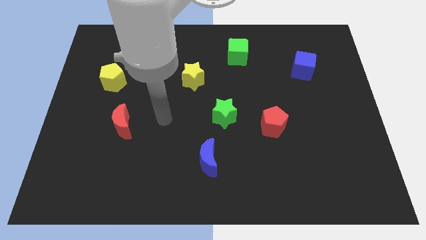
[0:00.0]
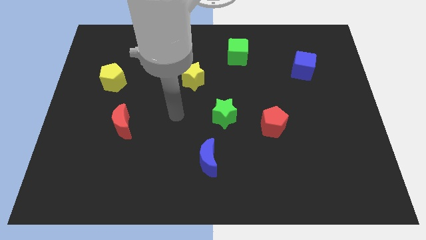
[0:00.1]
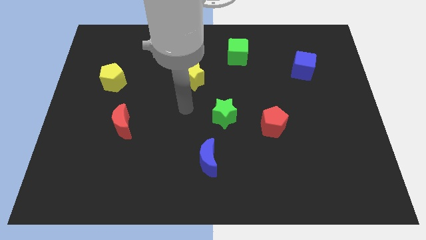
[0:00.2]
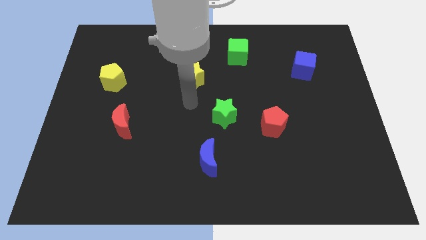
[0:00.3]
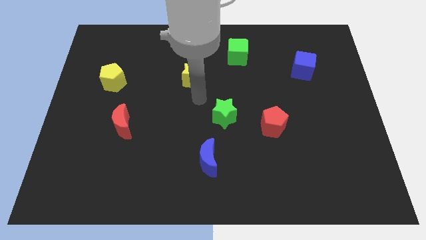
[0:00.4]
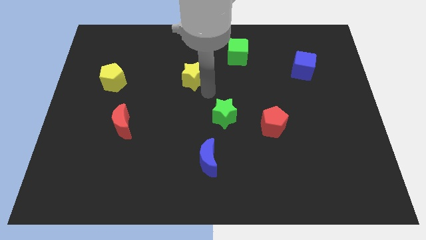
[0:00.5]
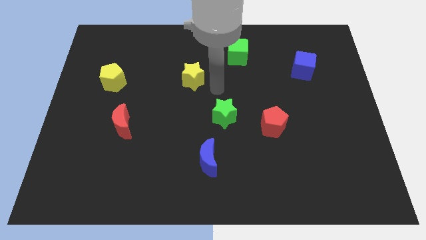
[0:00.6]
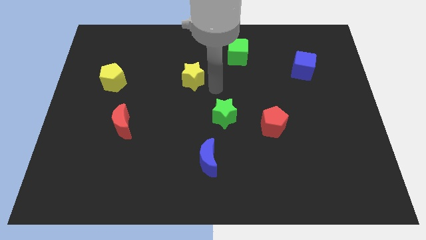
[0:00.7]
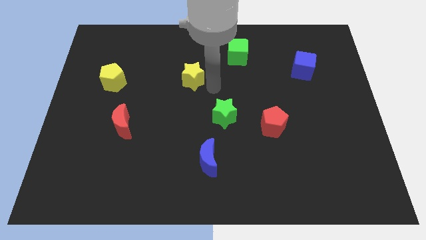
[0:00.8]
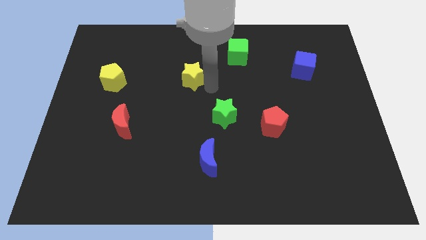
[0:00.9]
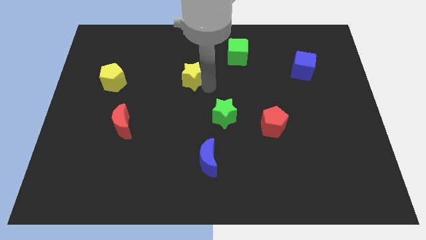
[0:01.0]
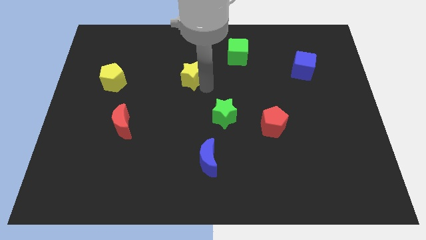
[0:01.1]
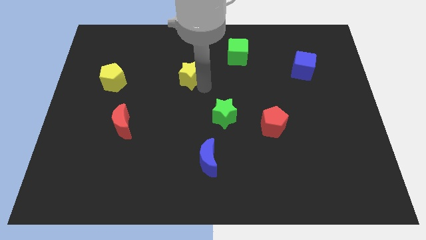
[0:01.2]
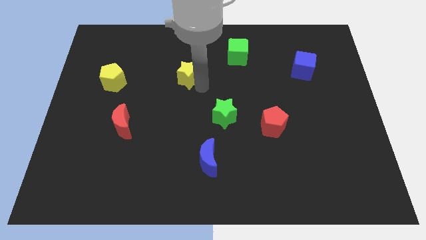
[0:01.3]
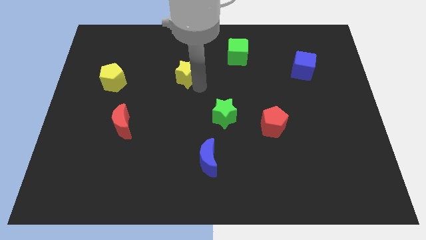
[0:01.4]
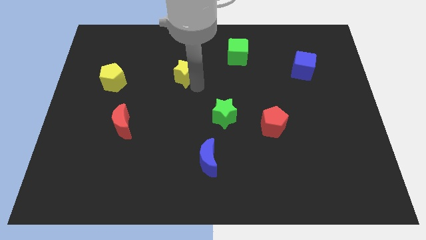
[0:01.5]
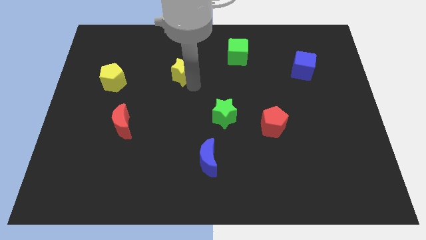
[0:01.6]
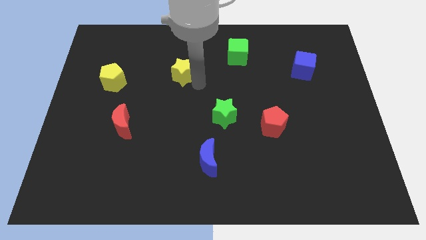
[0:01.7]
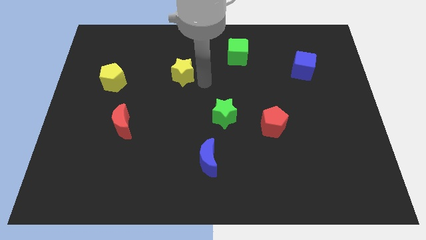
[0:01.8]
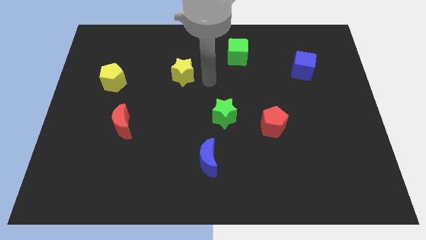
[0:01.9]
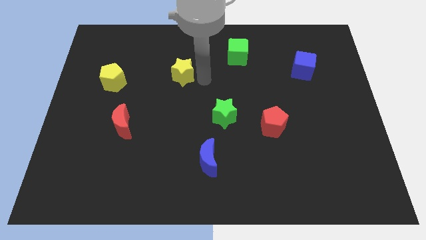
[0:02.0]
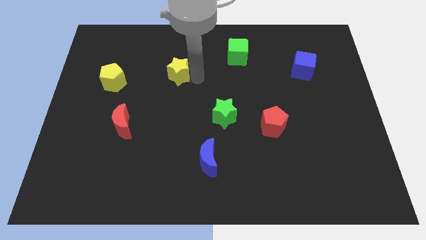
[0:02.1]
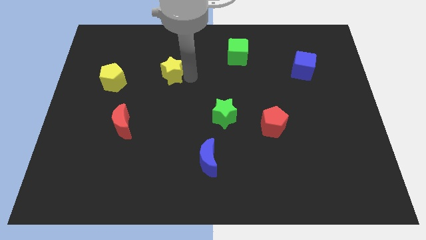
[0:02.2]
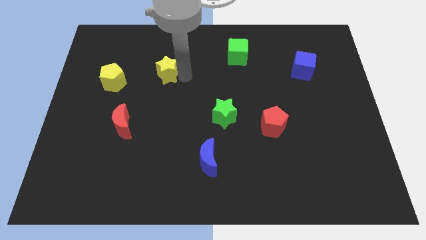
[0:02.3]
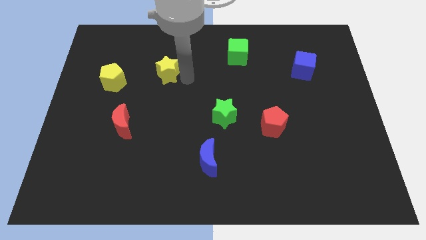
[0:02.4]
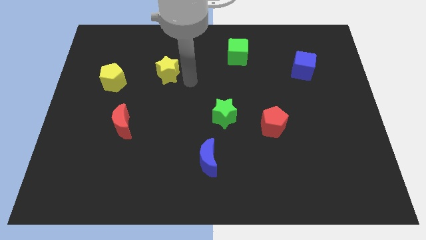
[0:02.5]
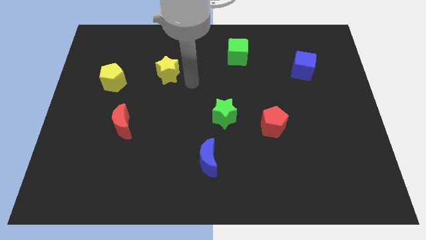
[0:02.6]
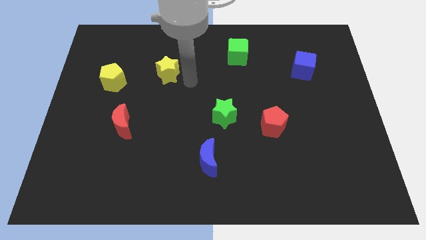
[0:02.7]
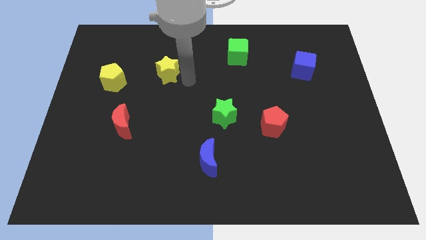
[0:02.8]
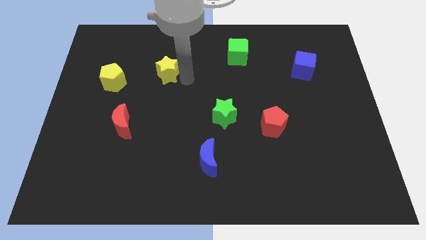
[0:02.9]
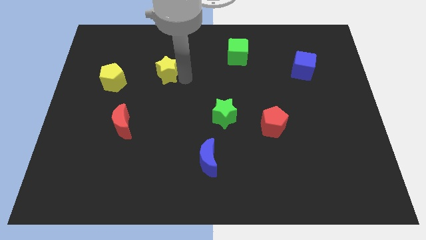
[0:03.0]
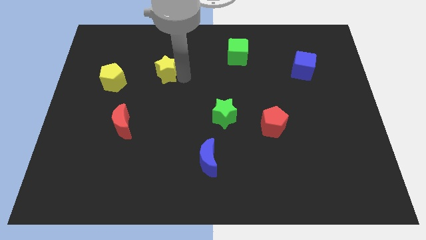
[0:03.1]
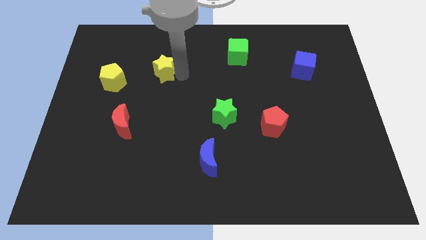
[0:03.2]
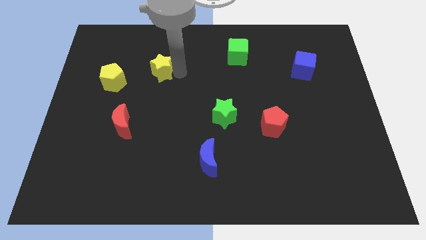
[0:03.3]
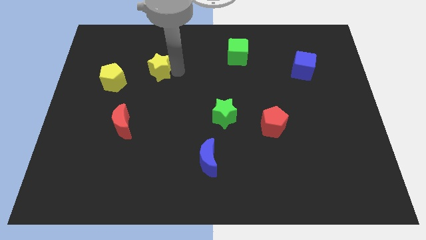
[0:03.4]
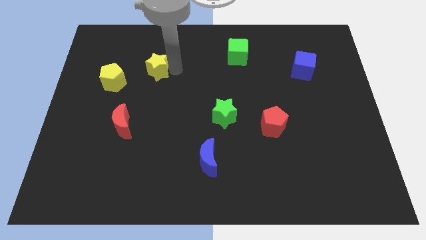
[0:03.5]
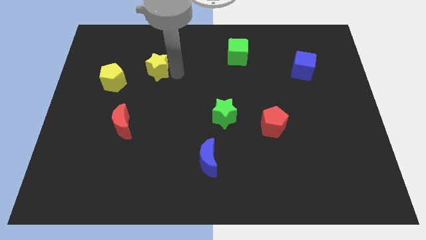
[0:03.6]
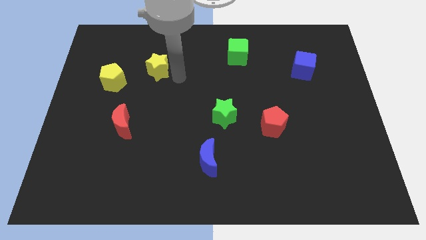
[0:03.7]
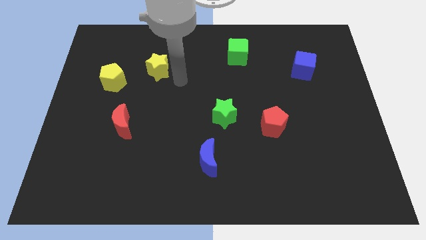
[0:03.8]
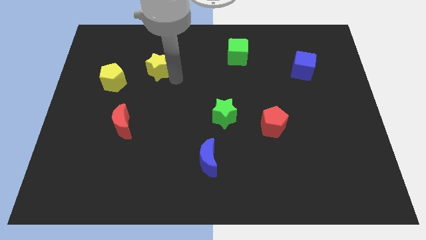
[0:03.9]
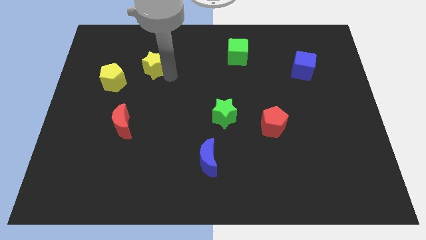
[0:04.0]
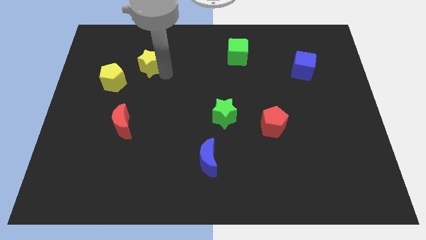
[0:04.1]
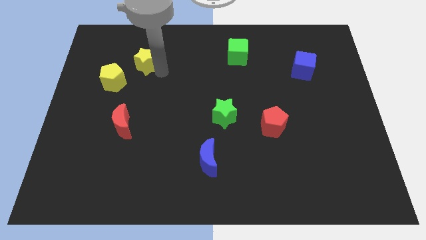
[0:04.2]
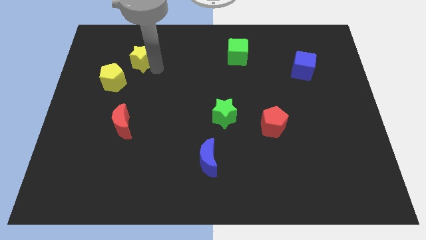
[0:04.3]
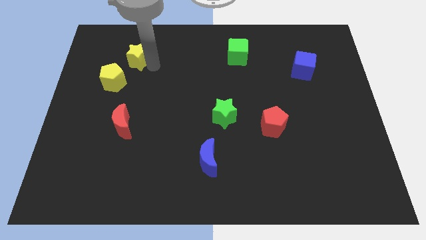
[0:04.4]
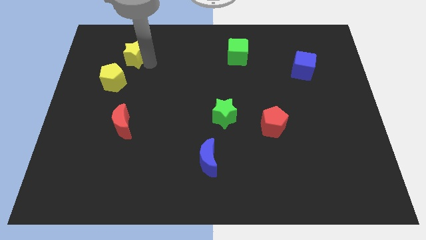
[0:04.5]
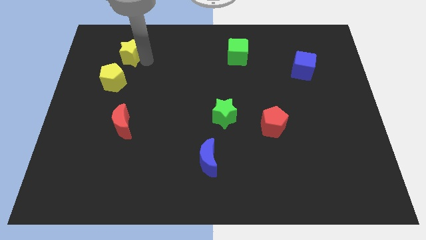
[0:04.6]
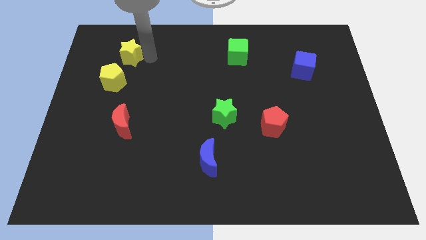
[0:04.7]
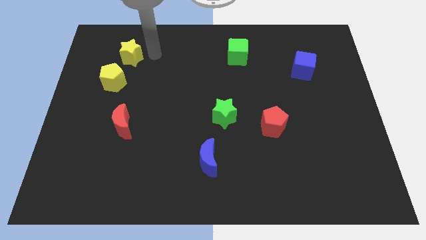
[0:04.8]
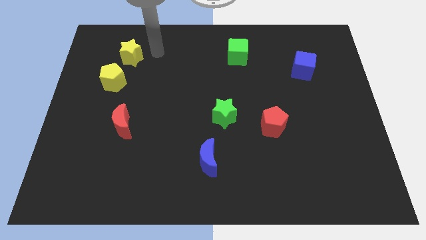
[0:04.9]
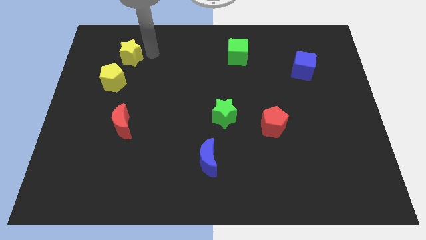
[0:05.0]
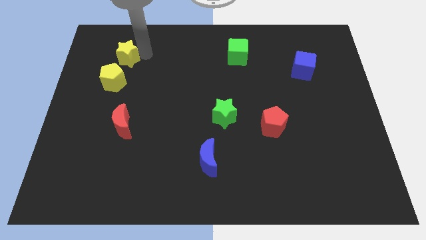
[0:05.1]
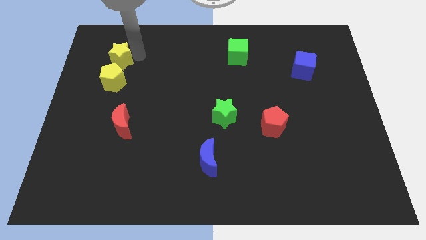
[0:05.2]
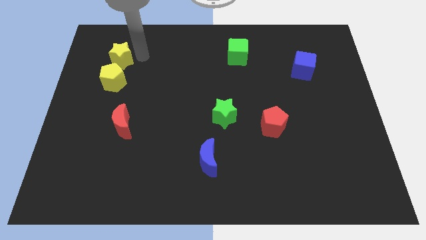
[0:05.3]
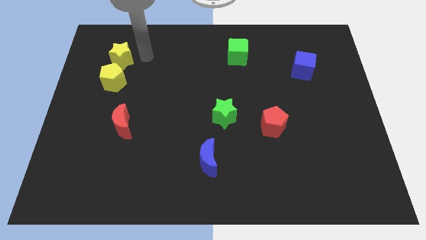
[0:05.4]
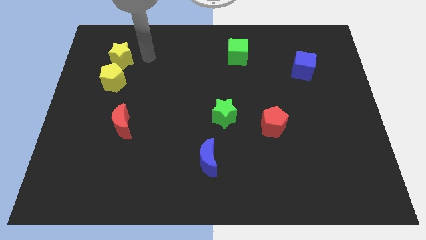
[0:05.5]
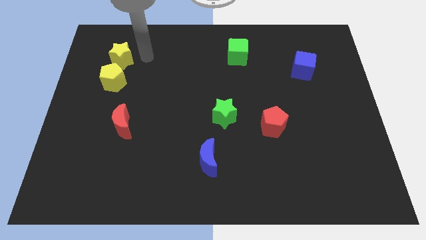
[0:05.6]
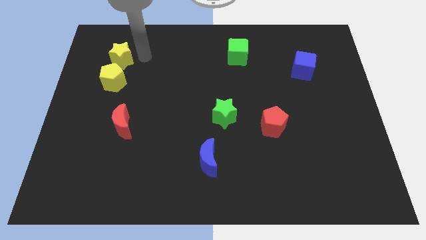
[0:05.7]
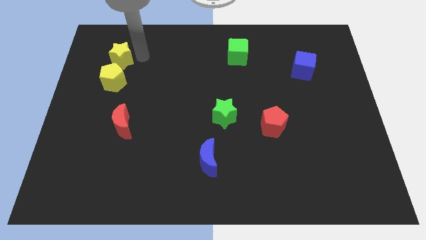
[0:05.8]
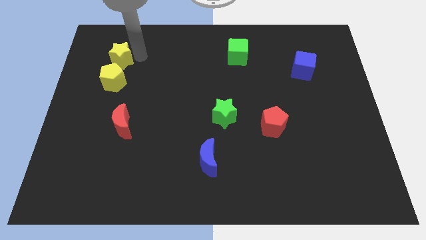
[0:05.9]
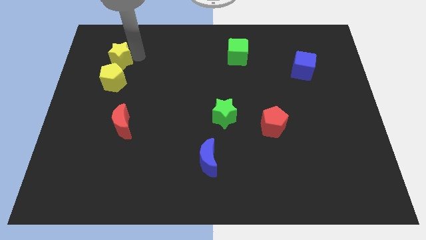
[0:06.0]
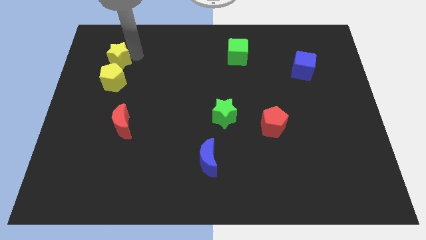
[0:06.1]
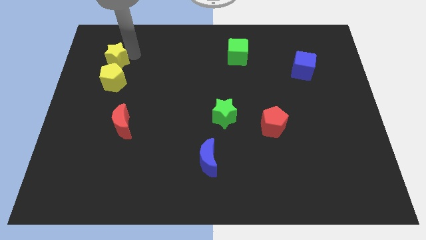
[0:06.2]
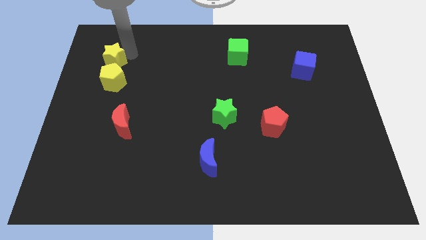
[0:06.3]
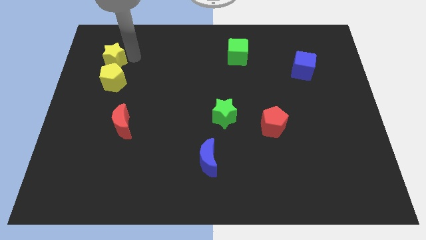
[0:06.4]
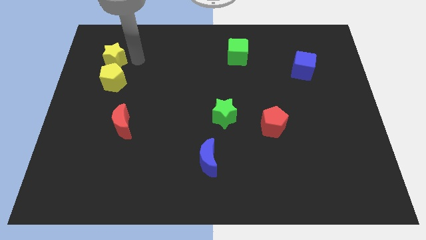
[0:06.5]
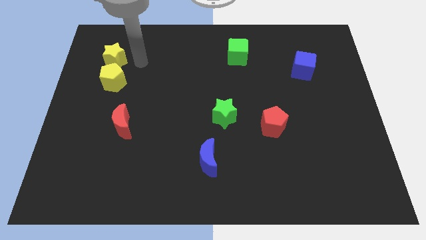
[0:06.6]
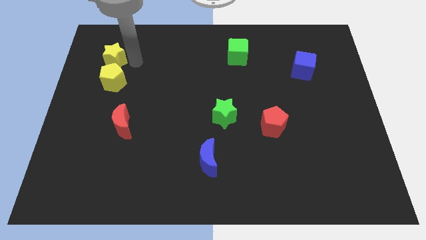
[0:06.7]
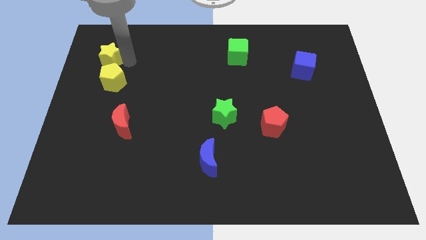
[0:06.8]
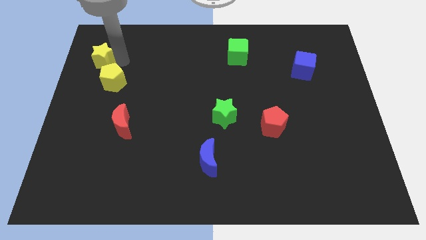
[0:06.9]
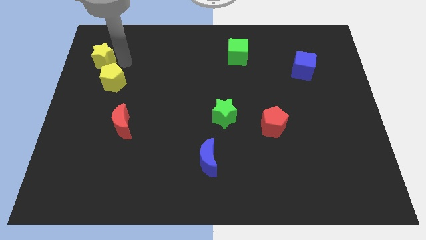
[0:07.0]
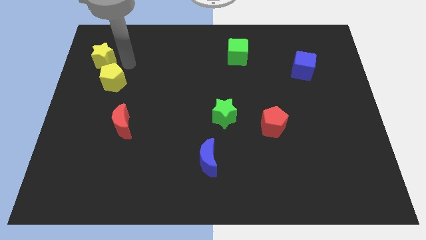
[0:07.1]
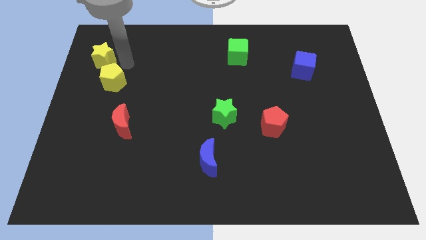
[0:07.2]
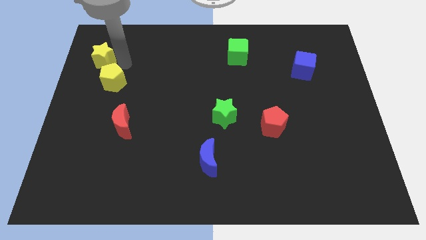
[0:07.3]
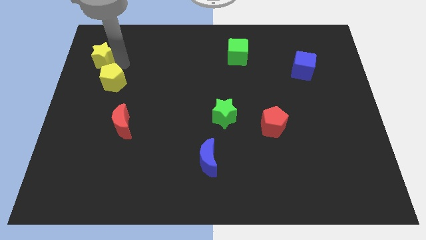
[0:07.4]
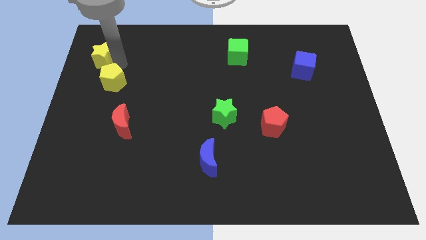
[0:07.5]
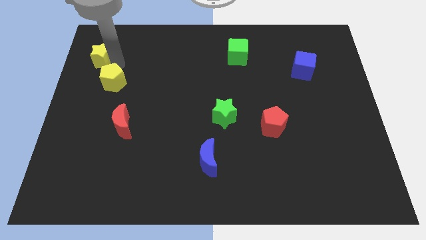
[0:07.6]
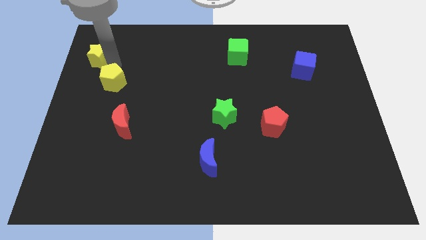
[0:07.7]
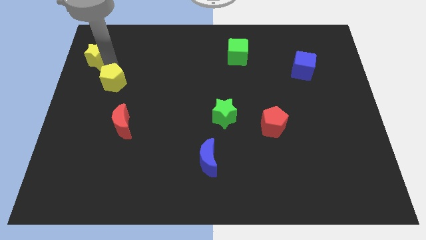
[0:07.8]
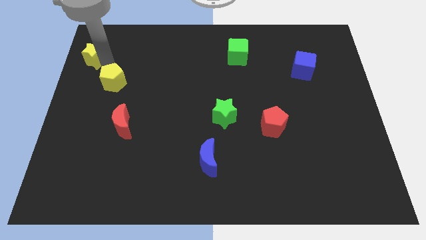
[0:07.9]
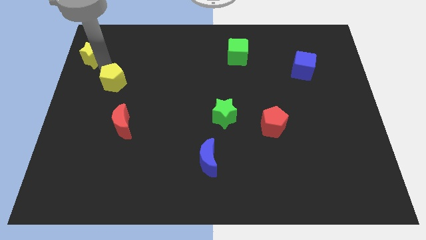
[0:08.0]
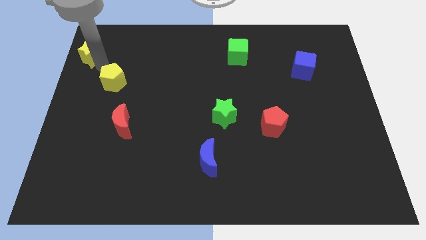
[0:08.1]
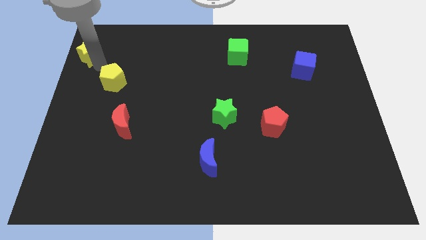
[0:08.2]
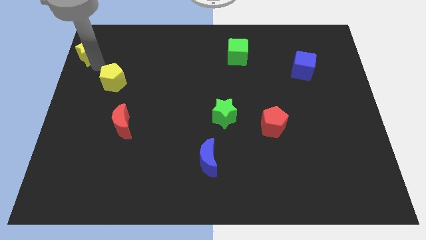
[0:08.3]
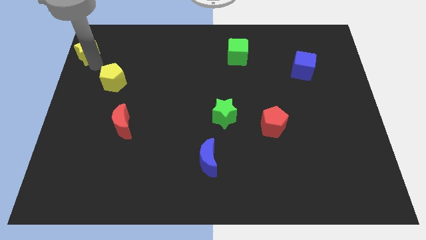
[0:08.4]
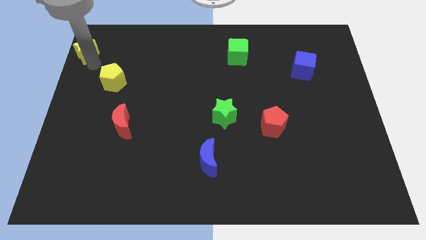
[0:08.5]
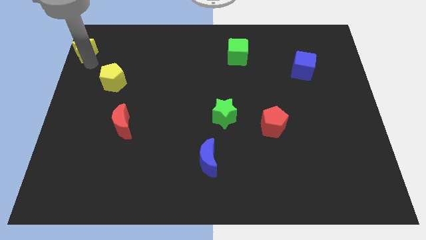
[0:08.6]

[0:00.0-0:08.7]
push the yellow star to the upper left corner

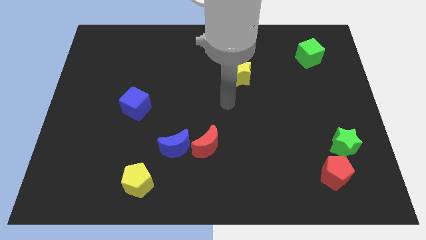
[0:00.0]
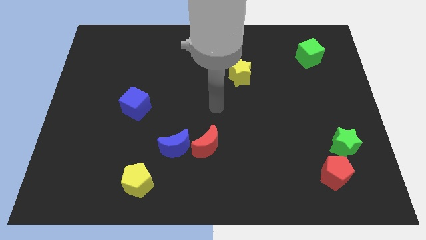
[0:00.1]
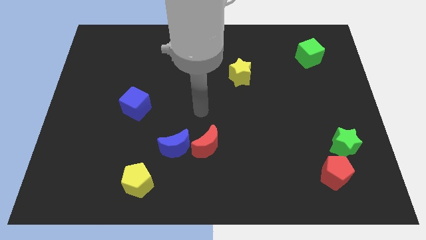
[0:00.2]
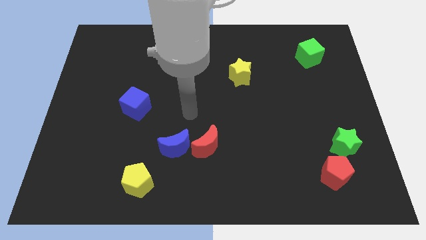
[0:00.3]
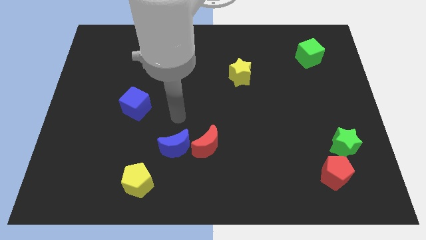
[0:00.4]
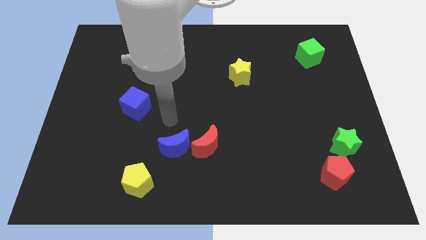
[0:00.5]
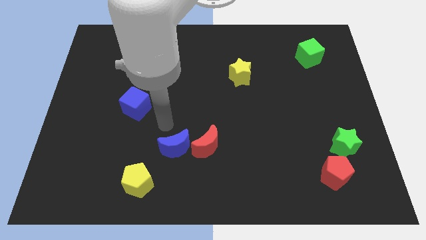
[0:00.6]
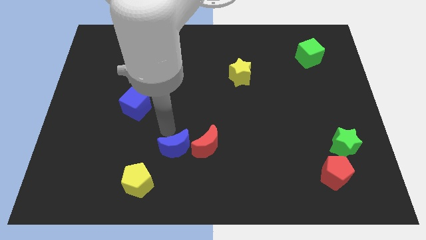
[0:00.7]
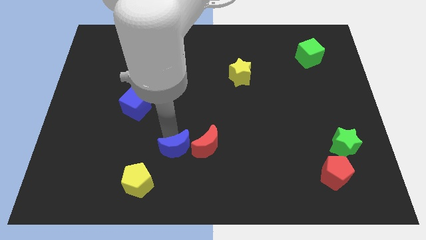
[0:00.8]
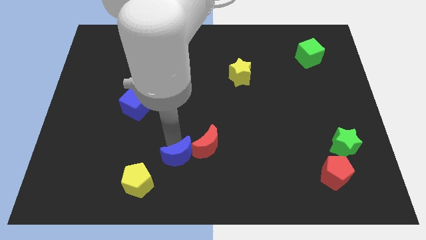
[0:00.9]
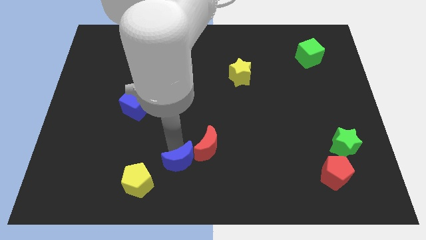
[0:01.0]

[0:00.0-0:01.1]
push the blue moon to the bottom side
